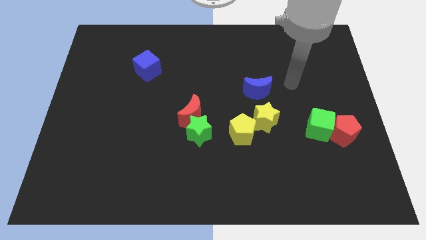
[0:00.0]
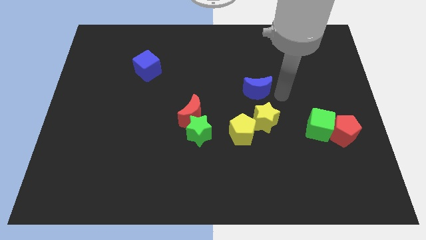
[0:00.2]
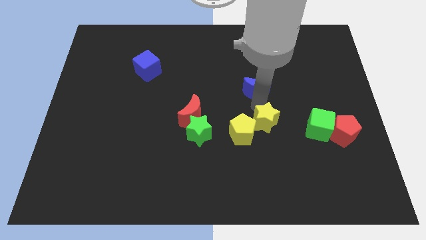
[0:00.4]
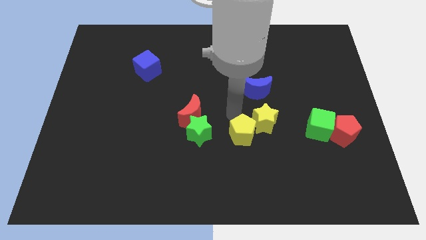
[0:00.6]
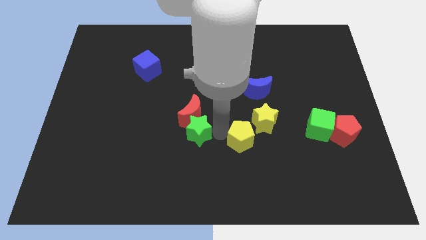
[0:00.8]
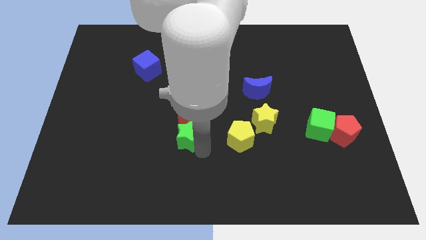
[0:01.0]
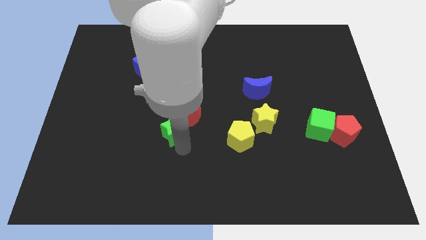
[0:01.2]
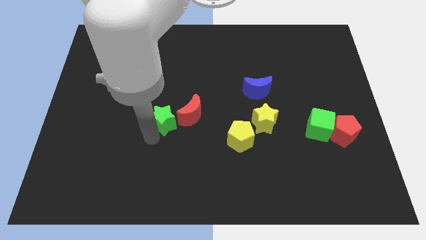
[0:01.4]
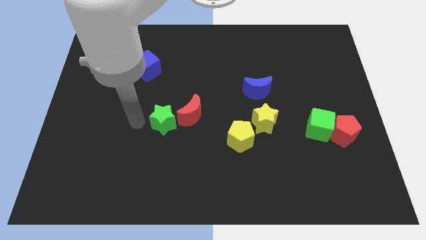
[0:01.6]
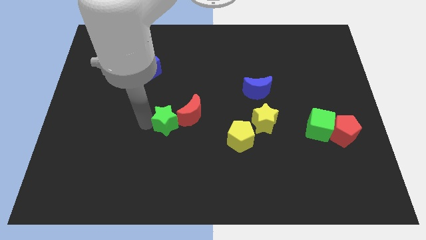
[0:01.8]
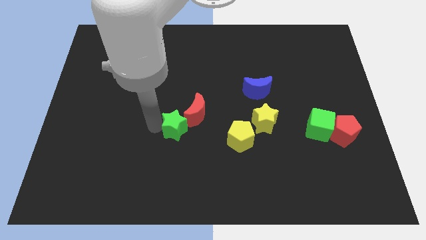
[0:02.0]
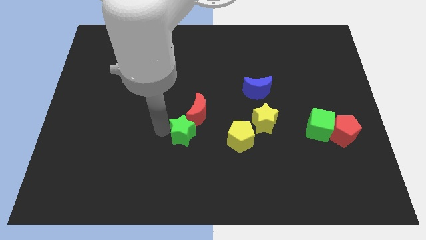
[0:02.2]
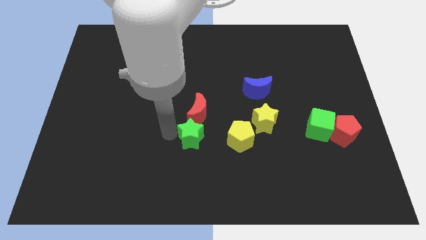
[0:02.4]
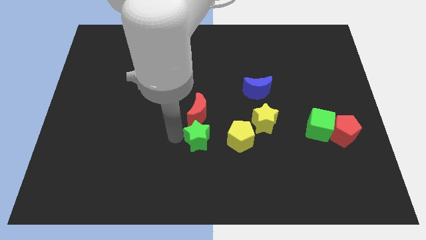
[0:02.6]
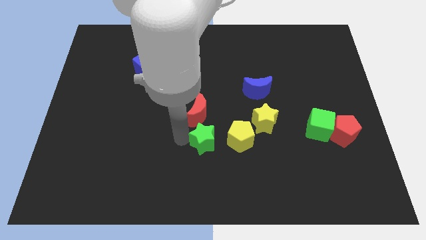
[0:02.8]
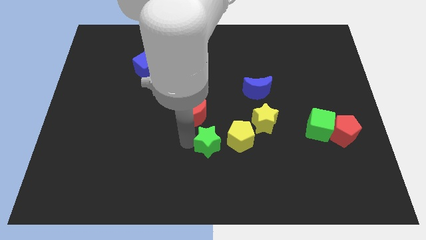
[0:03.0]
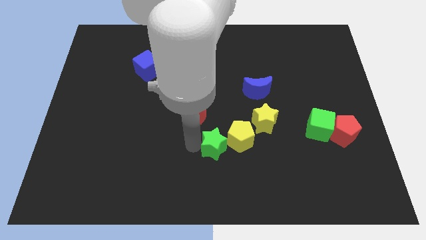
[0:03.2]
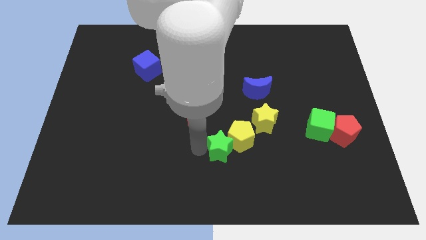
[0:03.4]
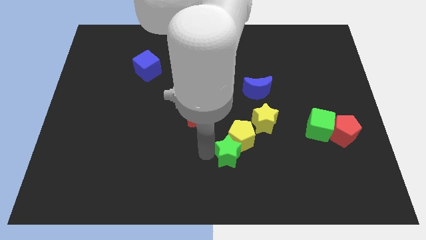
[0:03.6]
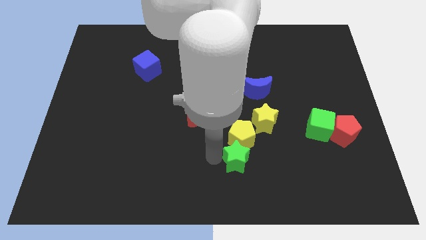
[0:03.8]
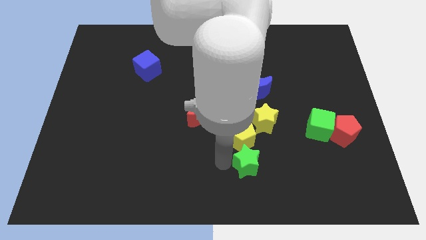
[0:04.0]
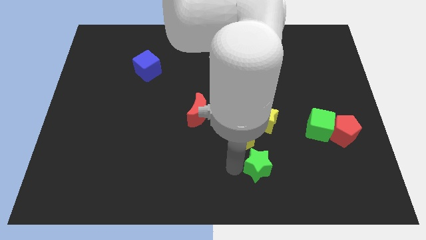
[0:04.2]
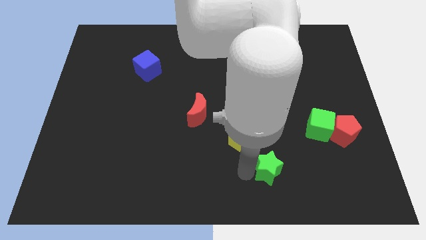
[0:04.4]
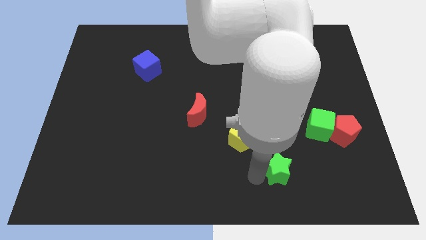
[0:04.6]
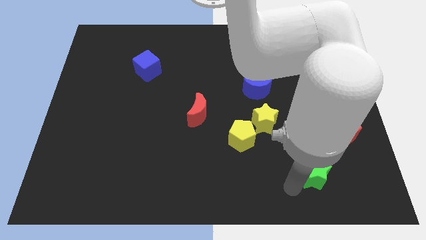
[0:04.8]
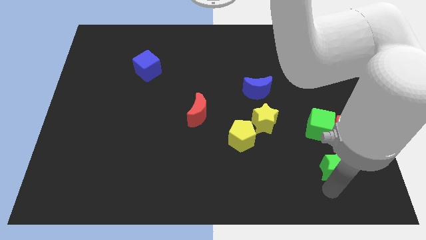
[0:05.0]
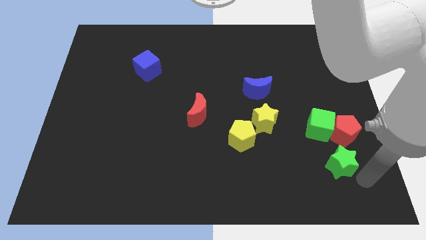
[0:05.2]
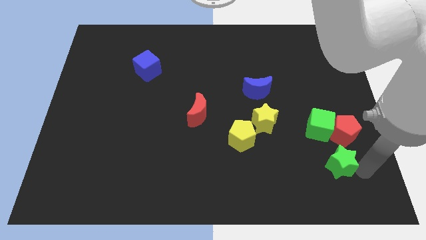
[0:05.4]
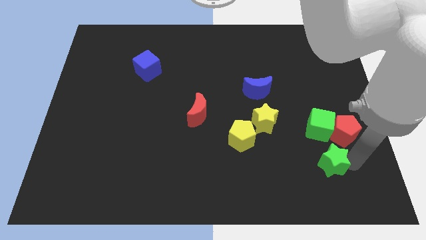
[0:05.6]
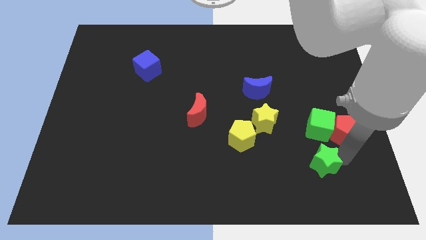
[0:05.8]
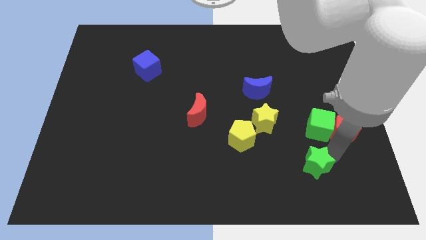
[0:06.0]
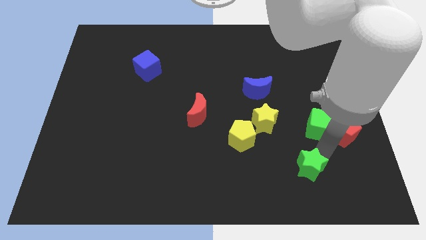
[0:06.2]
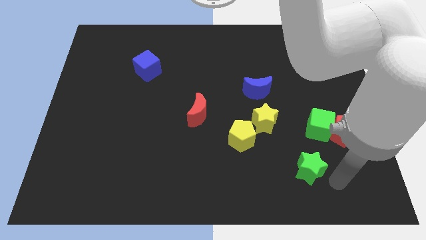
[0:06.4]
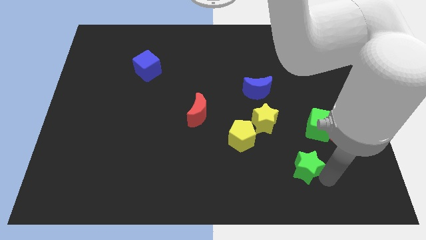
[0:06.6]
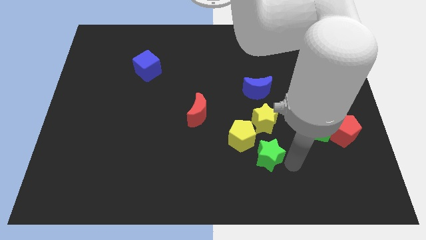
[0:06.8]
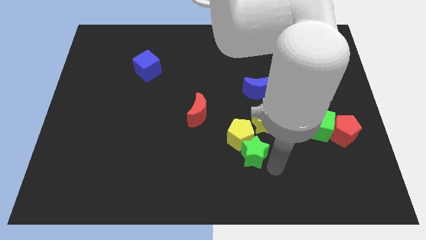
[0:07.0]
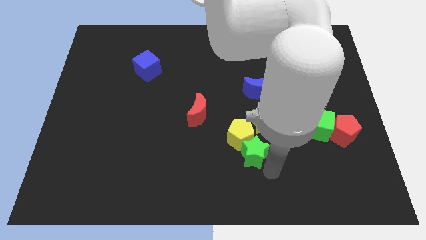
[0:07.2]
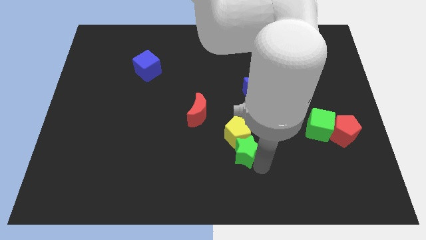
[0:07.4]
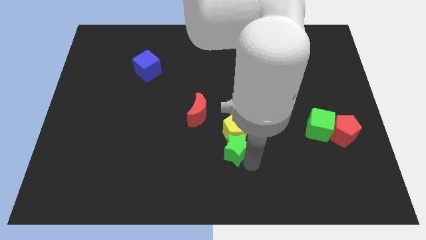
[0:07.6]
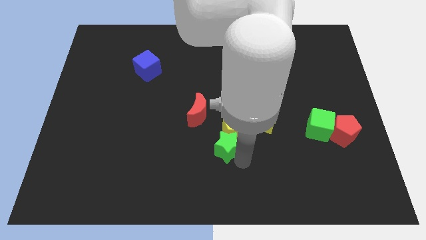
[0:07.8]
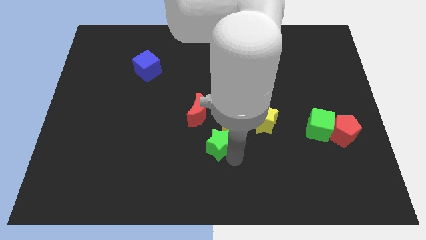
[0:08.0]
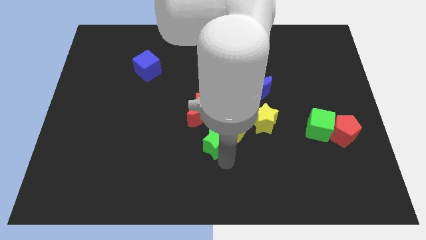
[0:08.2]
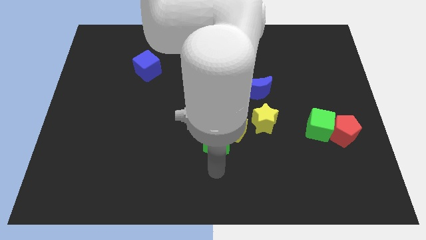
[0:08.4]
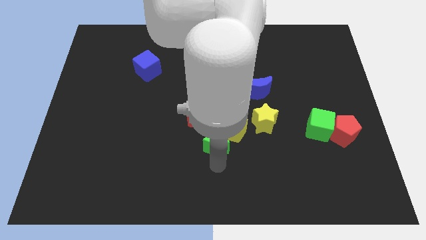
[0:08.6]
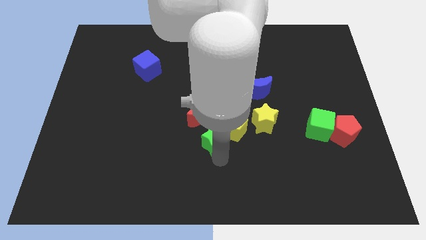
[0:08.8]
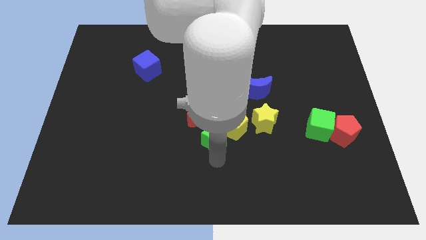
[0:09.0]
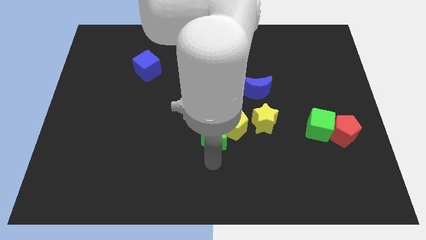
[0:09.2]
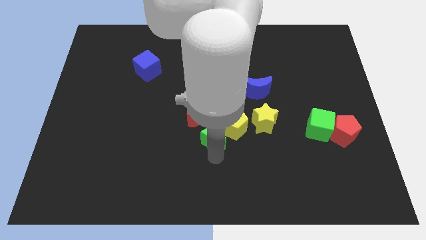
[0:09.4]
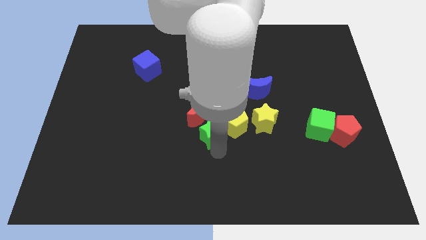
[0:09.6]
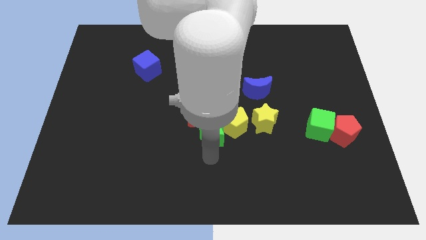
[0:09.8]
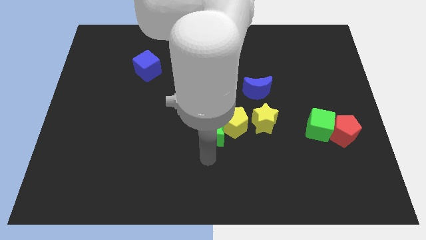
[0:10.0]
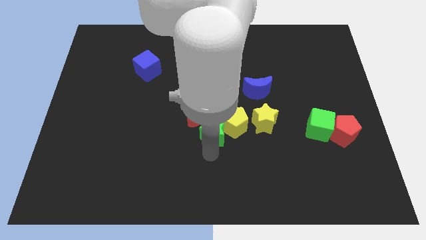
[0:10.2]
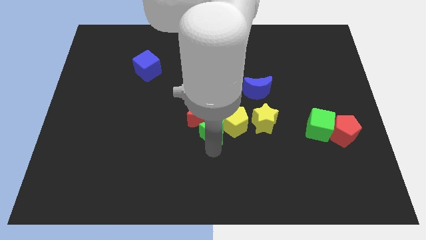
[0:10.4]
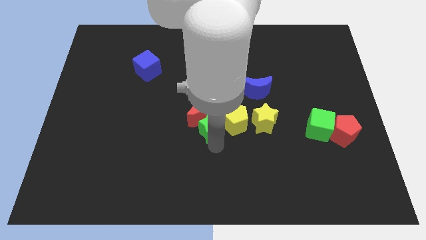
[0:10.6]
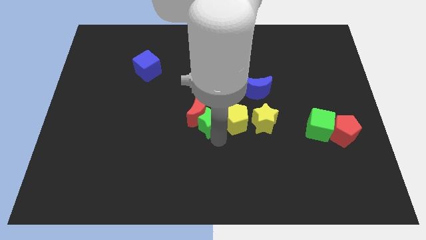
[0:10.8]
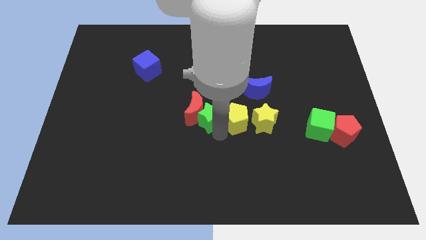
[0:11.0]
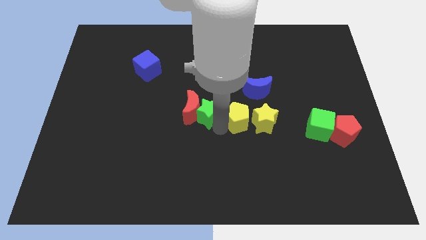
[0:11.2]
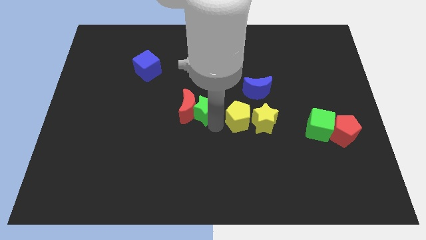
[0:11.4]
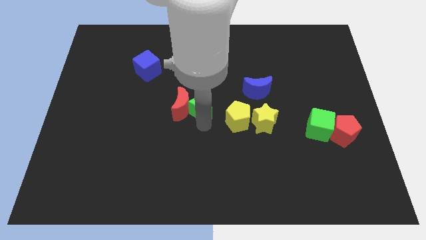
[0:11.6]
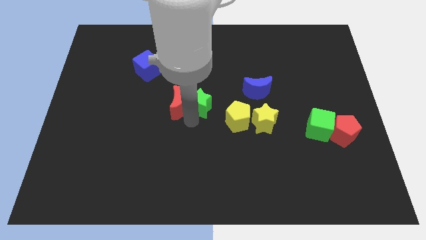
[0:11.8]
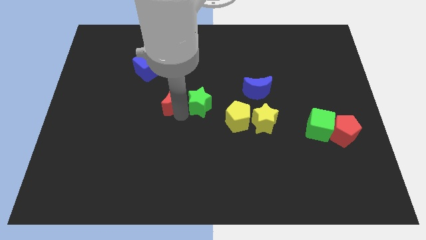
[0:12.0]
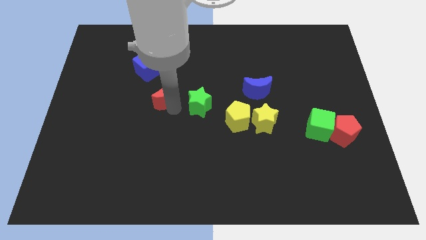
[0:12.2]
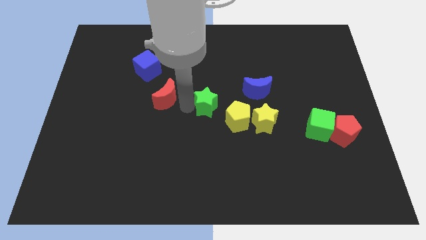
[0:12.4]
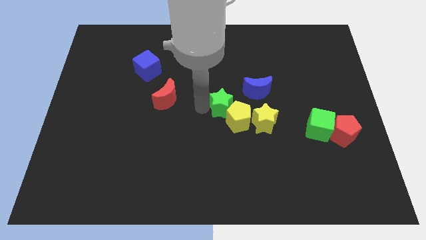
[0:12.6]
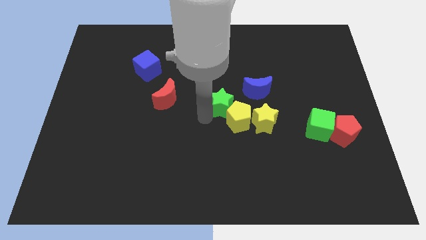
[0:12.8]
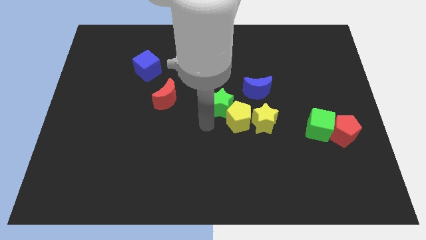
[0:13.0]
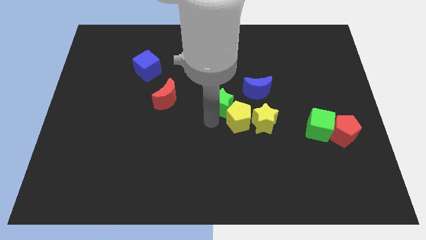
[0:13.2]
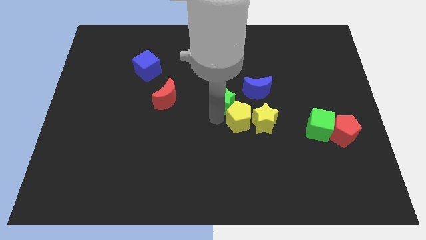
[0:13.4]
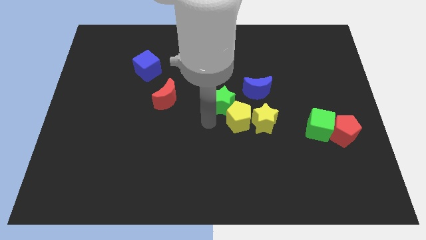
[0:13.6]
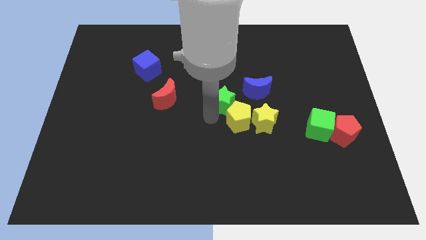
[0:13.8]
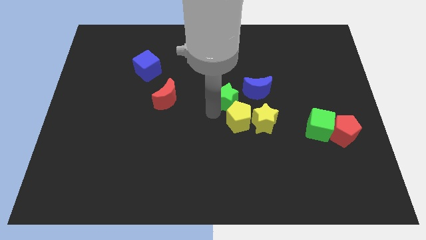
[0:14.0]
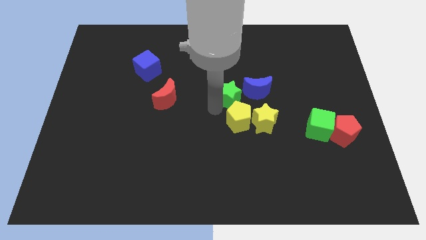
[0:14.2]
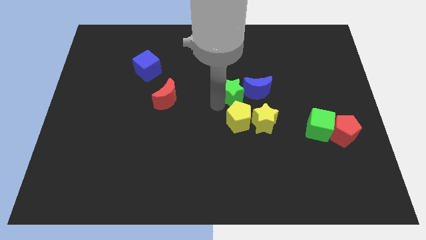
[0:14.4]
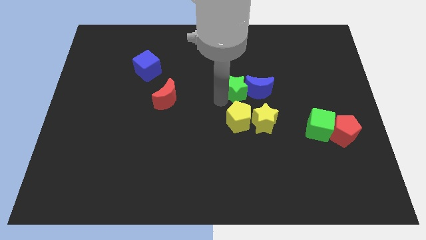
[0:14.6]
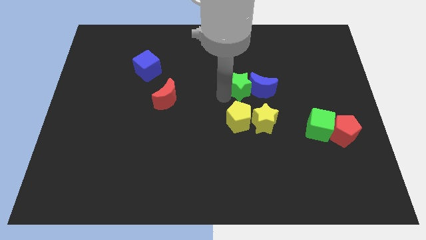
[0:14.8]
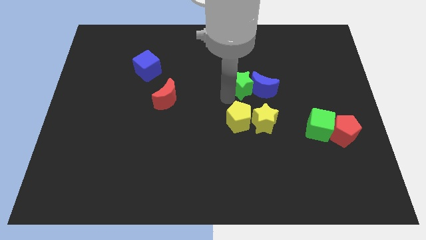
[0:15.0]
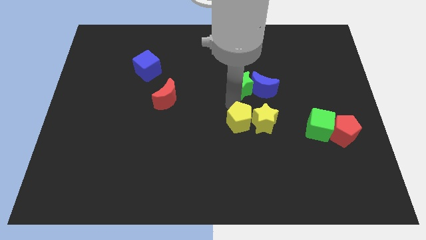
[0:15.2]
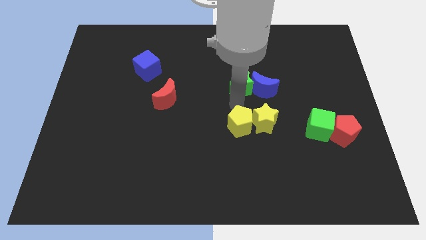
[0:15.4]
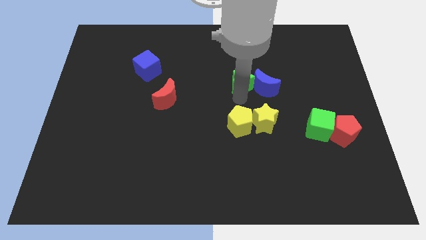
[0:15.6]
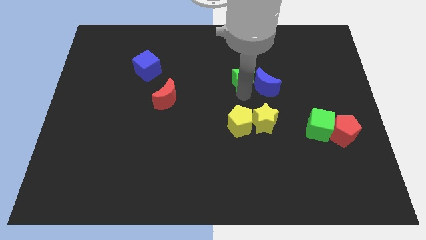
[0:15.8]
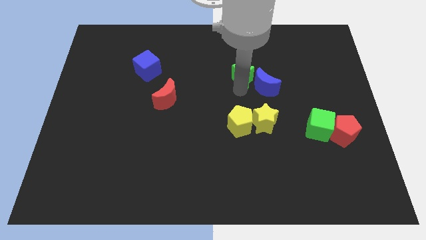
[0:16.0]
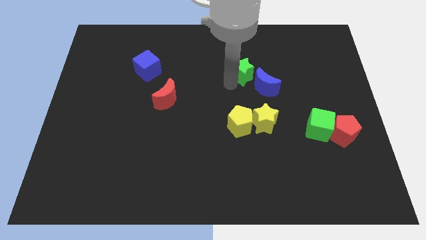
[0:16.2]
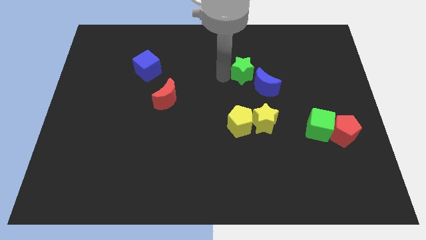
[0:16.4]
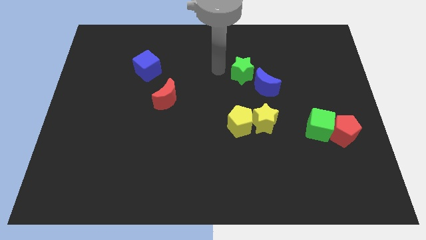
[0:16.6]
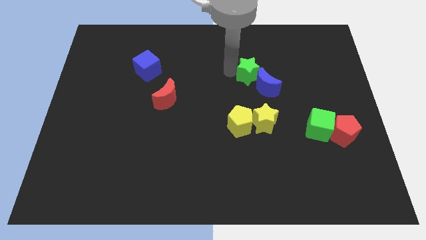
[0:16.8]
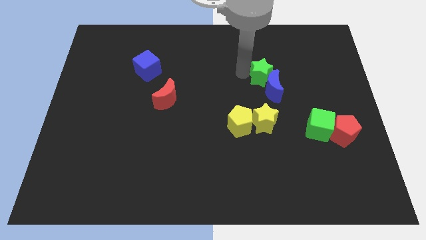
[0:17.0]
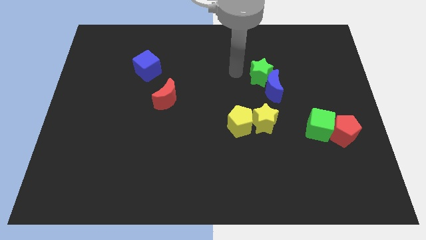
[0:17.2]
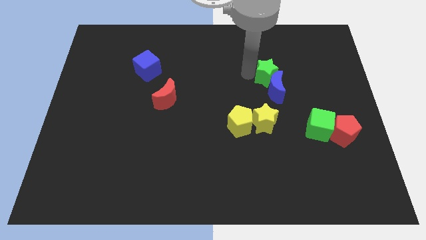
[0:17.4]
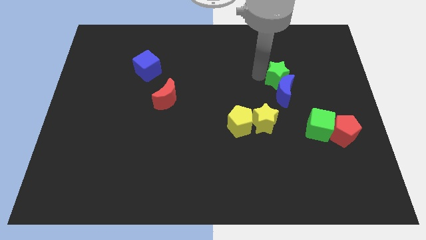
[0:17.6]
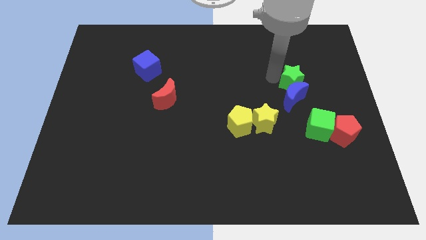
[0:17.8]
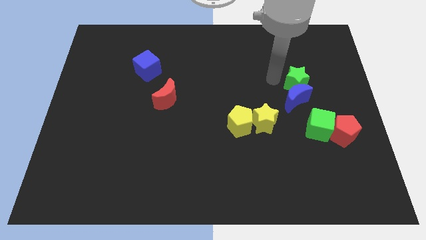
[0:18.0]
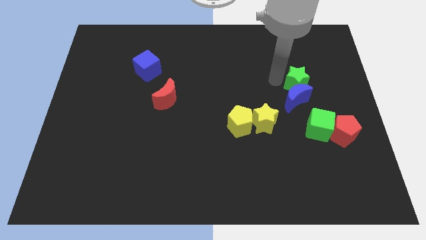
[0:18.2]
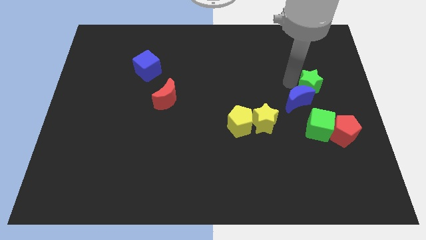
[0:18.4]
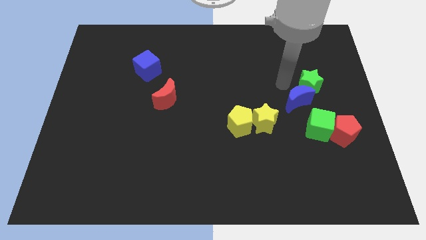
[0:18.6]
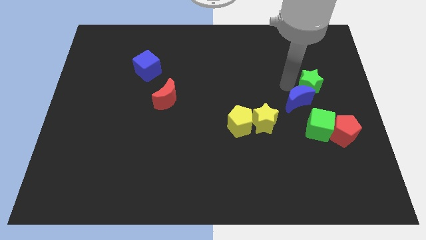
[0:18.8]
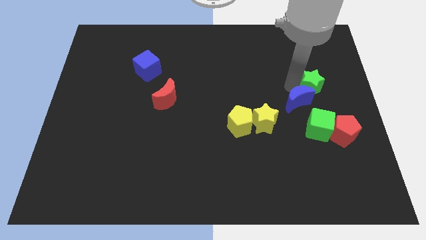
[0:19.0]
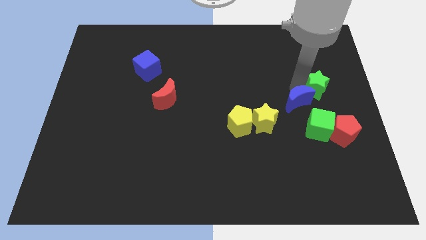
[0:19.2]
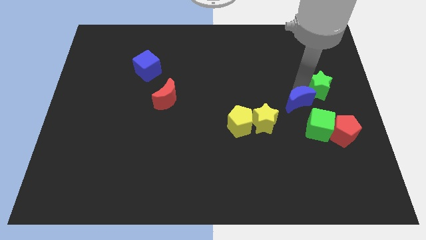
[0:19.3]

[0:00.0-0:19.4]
move the green star to the center right
